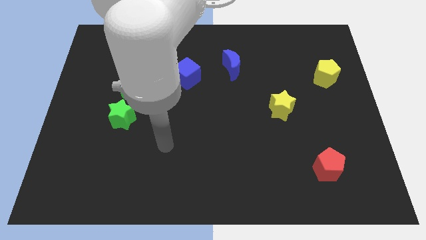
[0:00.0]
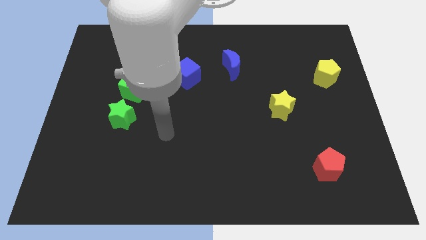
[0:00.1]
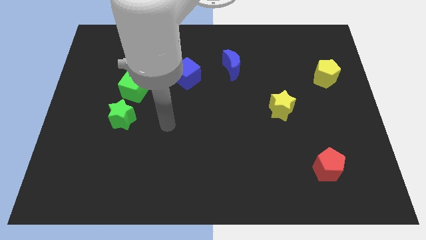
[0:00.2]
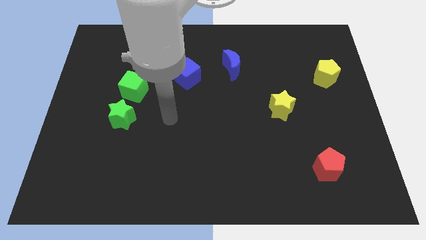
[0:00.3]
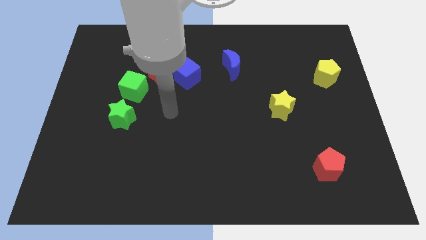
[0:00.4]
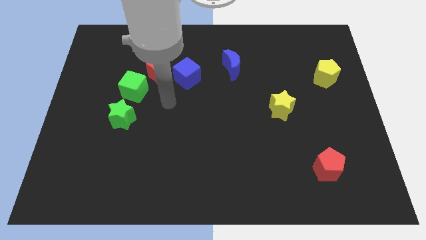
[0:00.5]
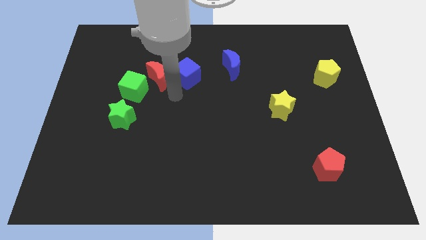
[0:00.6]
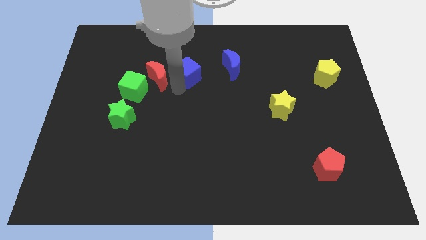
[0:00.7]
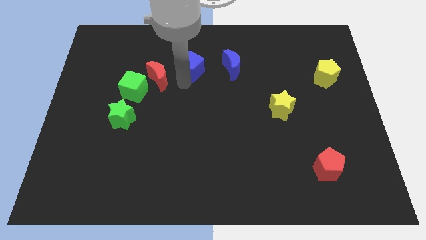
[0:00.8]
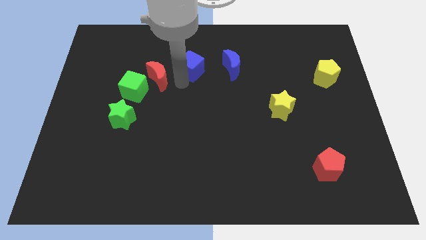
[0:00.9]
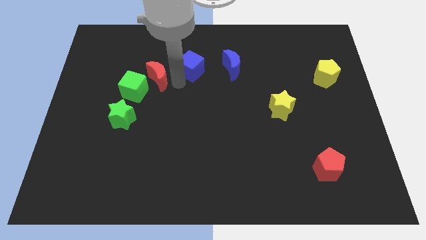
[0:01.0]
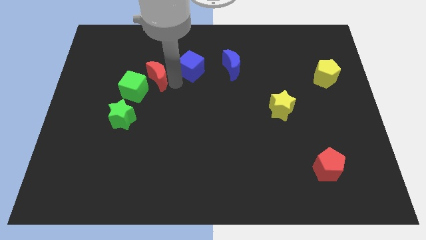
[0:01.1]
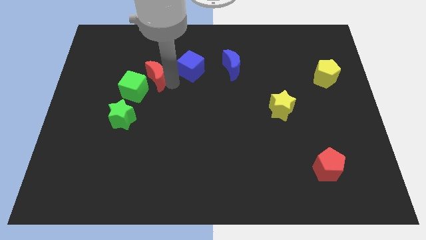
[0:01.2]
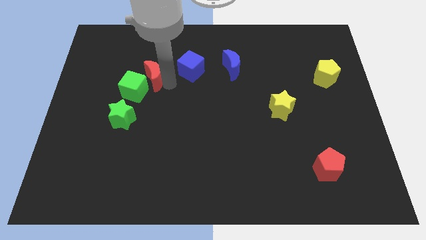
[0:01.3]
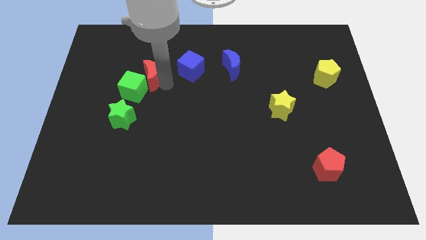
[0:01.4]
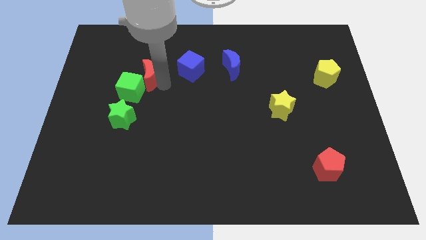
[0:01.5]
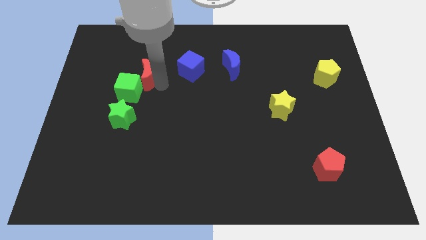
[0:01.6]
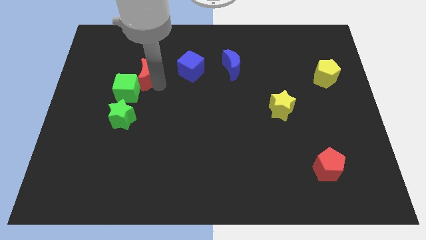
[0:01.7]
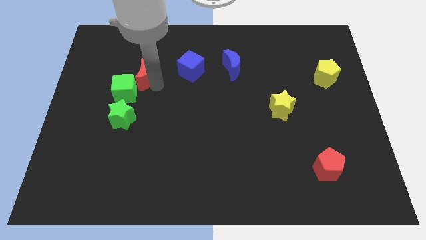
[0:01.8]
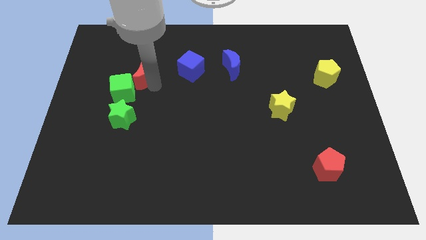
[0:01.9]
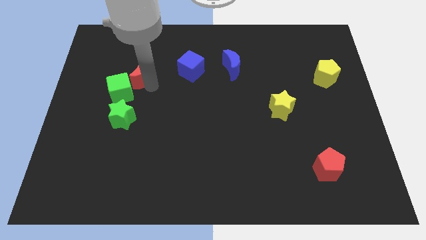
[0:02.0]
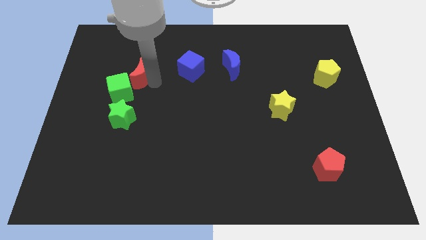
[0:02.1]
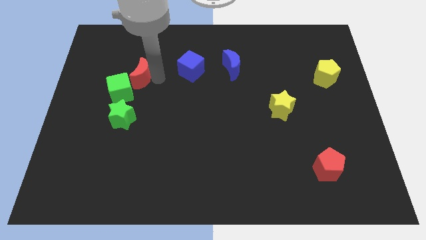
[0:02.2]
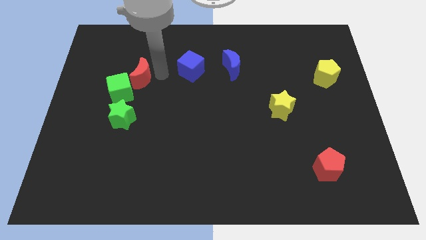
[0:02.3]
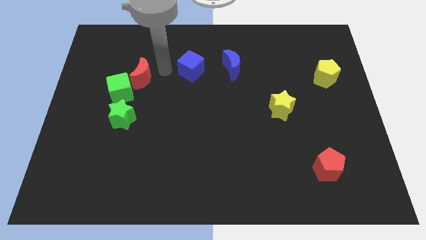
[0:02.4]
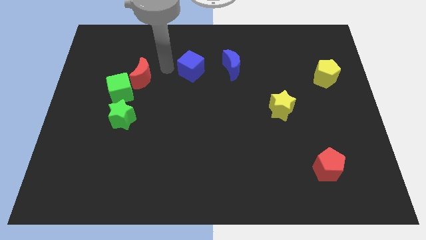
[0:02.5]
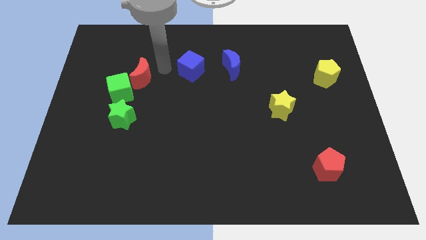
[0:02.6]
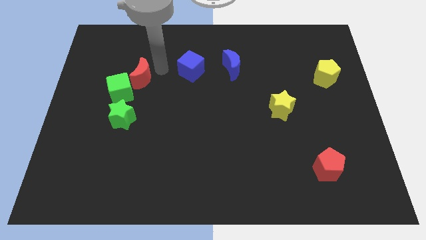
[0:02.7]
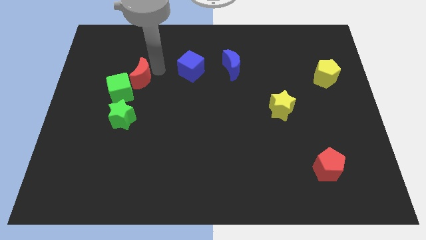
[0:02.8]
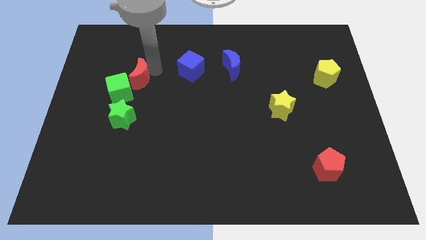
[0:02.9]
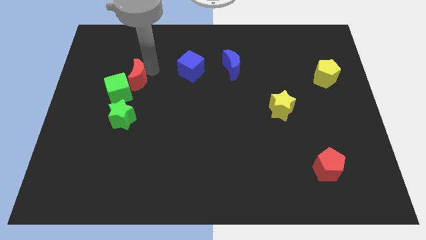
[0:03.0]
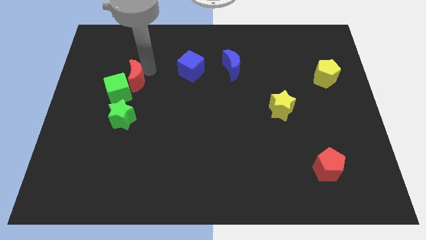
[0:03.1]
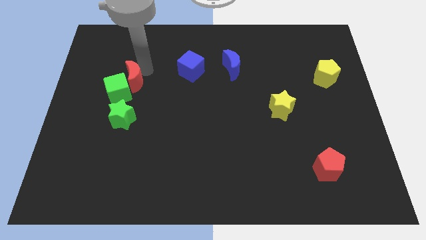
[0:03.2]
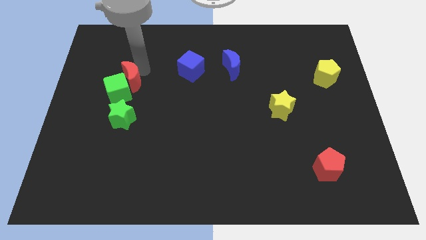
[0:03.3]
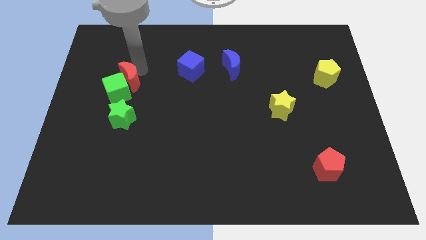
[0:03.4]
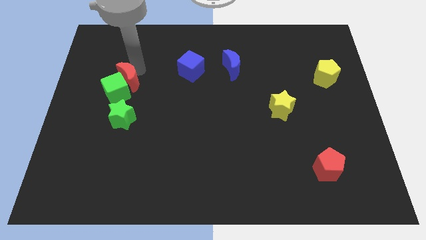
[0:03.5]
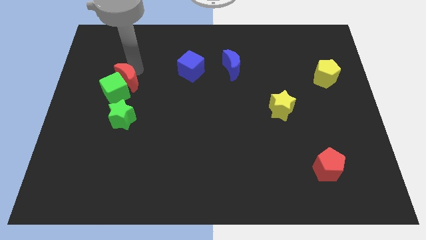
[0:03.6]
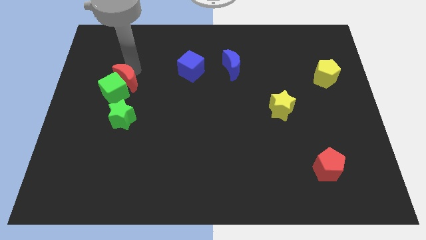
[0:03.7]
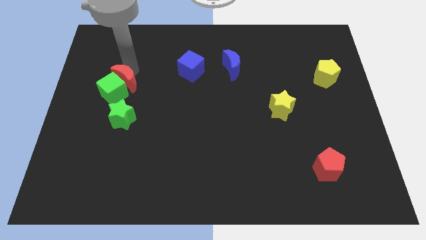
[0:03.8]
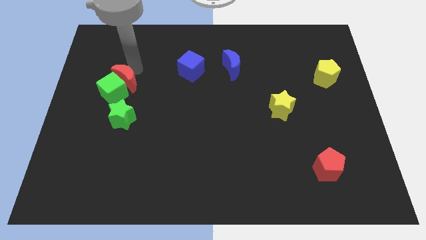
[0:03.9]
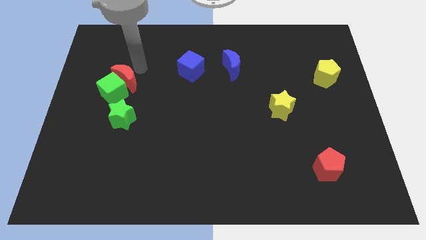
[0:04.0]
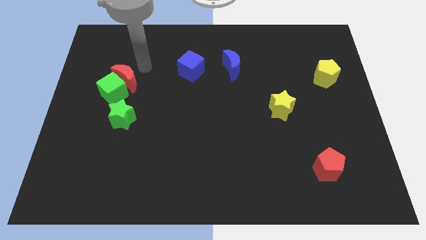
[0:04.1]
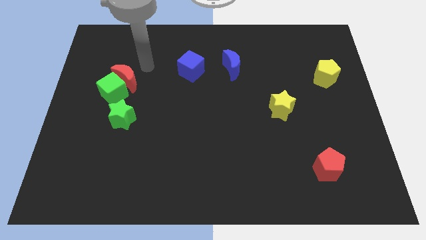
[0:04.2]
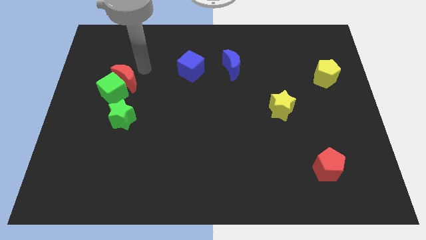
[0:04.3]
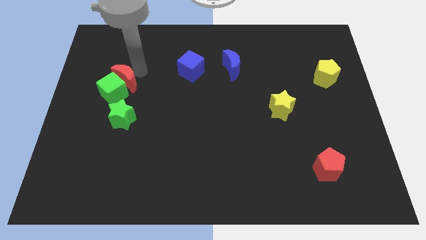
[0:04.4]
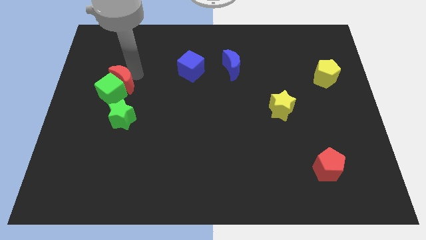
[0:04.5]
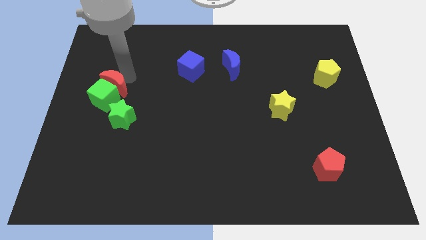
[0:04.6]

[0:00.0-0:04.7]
slightly move the red moon downwards and to the left

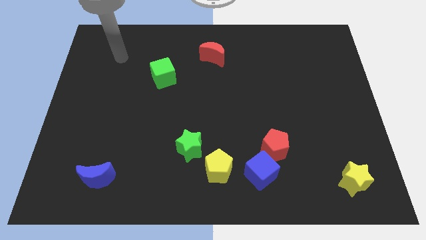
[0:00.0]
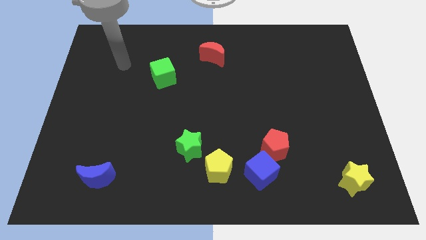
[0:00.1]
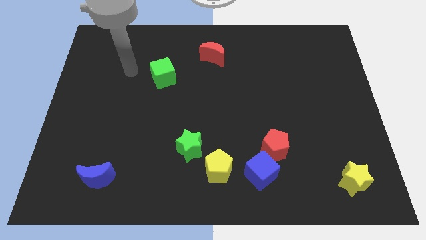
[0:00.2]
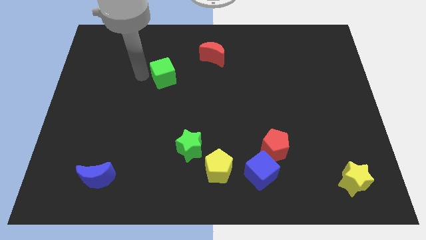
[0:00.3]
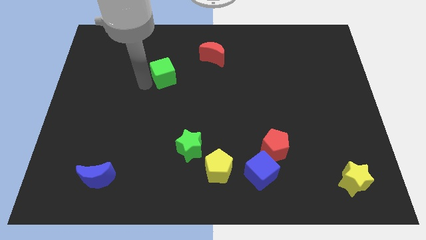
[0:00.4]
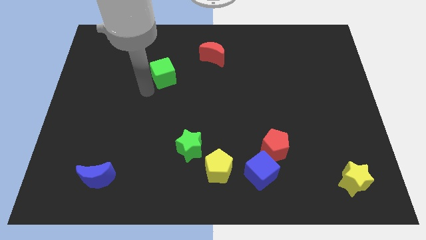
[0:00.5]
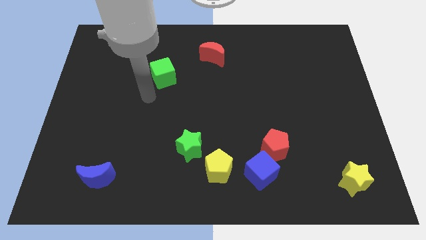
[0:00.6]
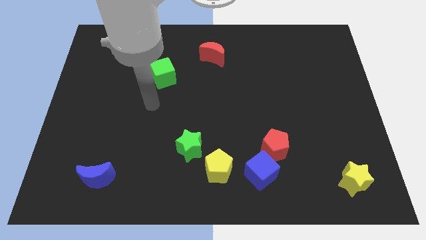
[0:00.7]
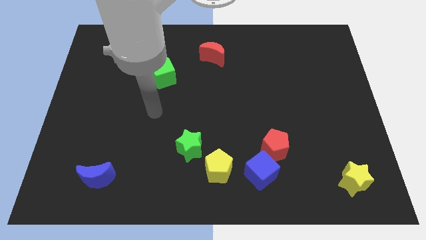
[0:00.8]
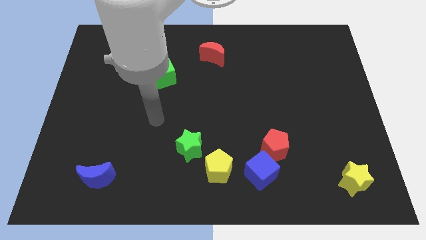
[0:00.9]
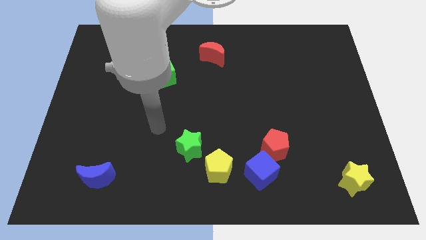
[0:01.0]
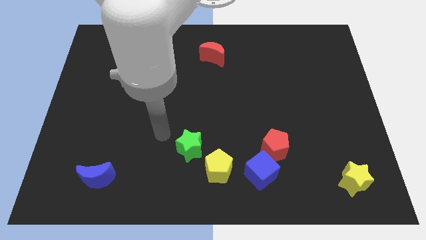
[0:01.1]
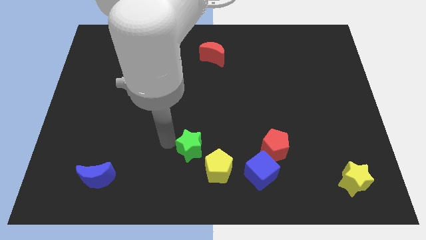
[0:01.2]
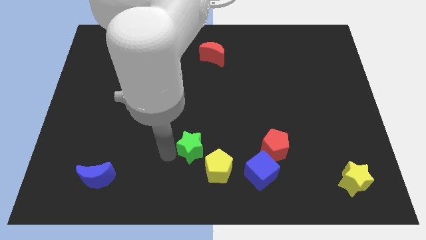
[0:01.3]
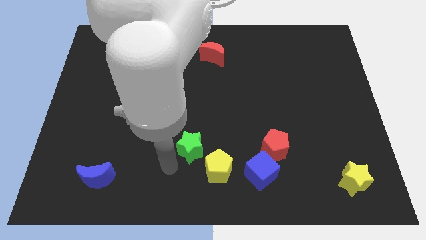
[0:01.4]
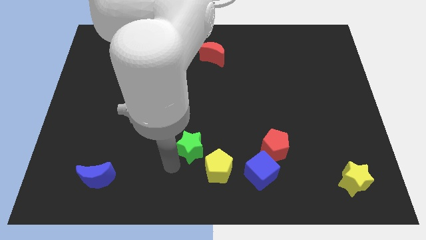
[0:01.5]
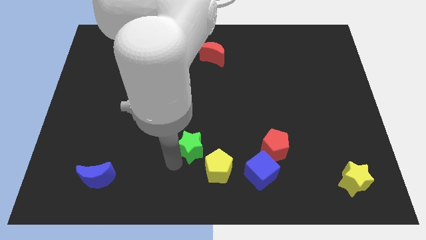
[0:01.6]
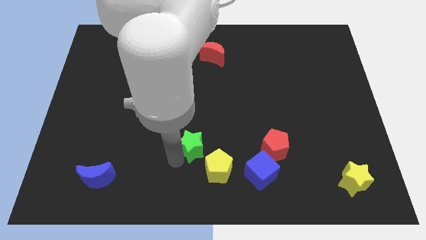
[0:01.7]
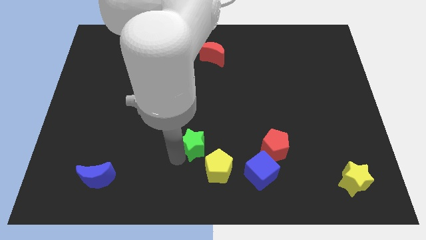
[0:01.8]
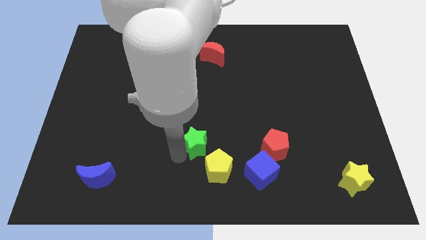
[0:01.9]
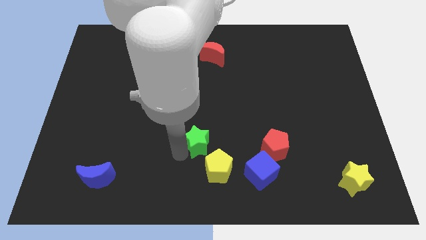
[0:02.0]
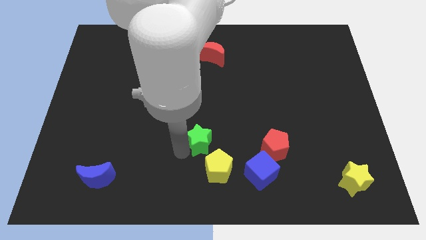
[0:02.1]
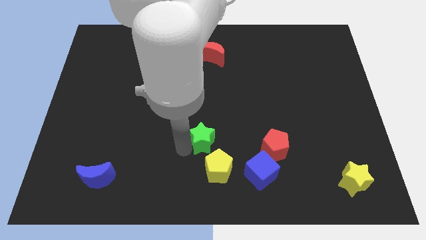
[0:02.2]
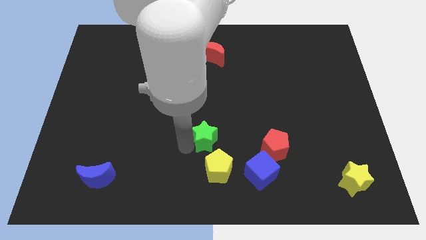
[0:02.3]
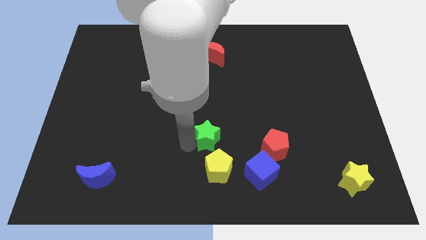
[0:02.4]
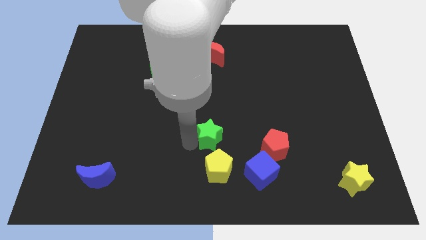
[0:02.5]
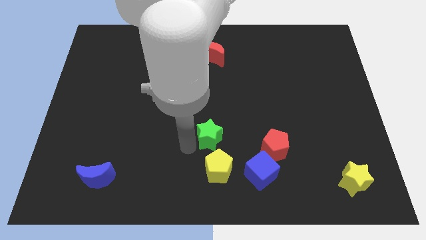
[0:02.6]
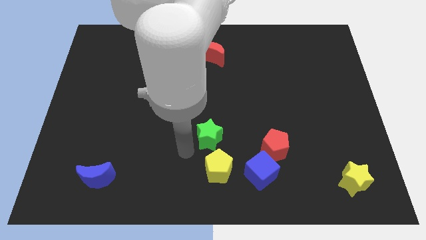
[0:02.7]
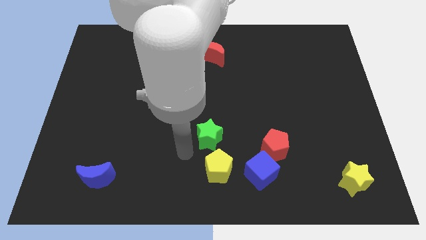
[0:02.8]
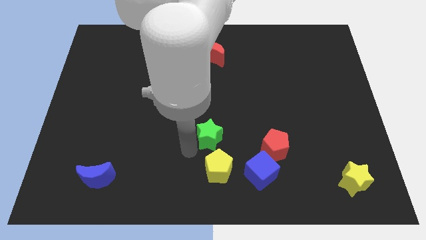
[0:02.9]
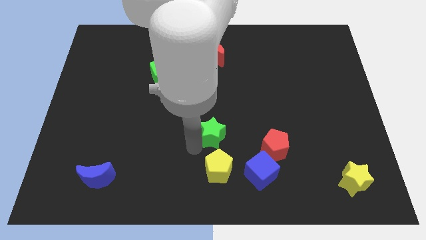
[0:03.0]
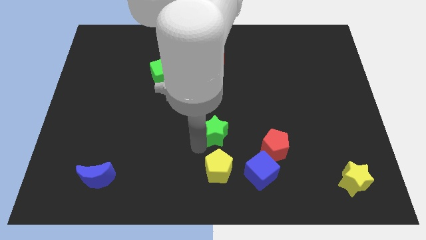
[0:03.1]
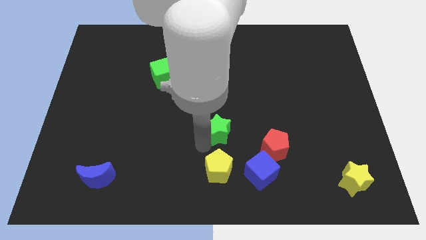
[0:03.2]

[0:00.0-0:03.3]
slide the green star a little diagonally upwards and right

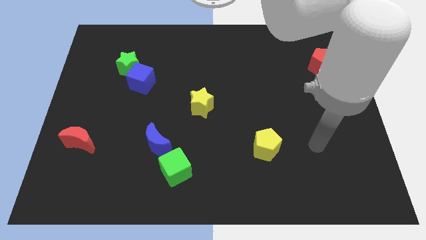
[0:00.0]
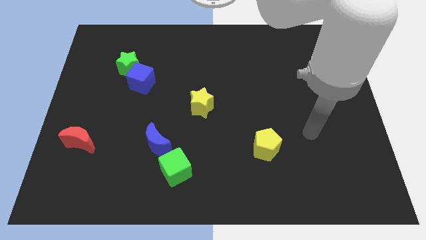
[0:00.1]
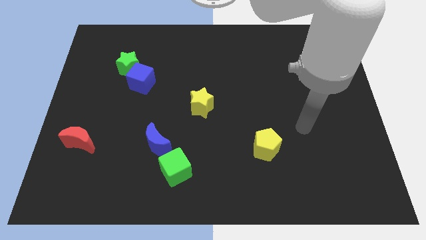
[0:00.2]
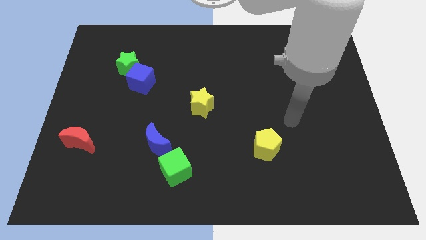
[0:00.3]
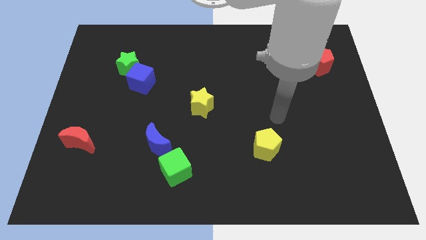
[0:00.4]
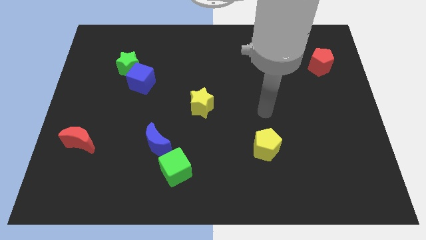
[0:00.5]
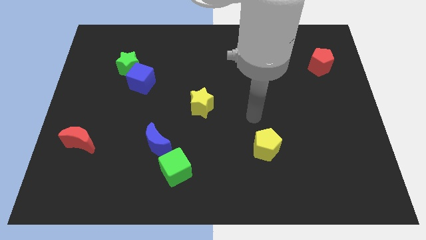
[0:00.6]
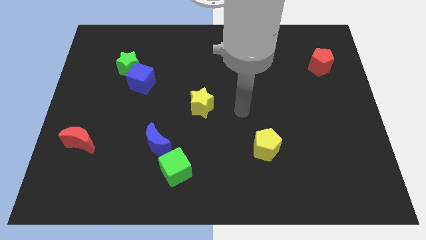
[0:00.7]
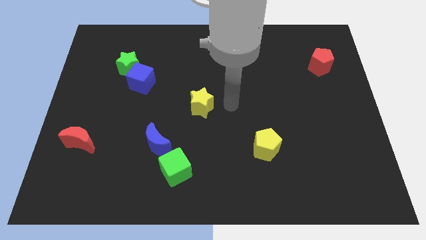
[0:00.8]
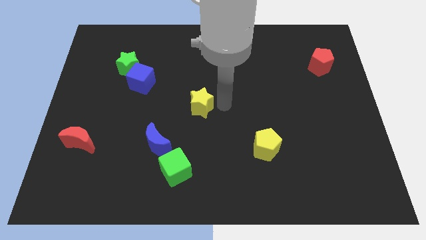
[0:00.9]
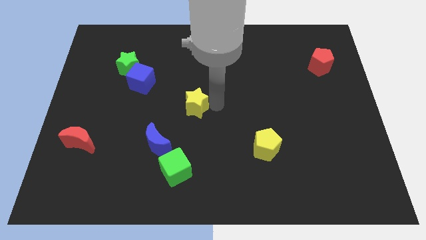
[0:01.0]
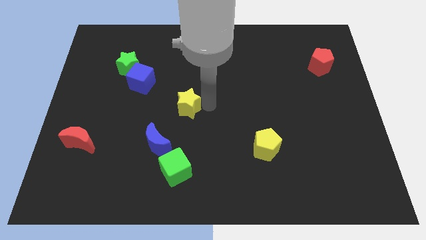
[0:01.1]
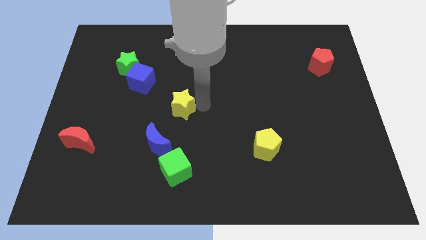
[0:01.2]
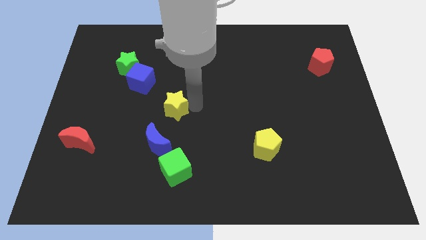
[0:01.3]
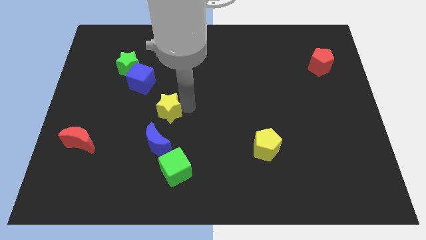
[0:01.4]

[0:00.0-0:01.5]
push the yellow star a little left
